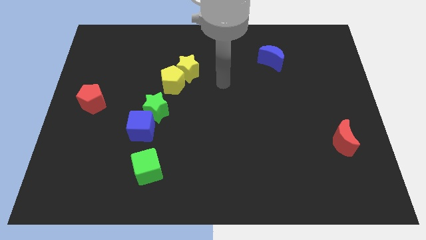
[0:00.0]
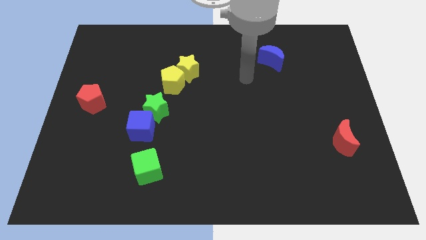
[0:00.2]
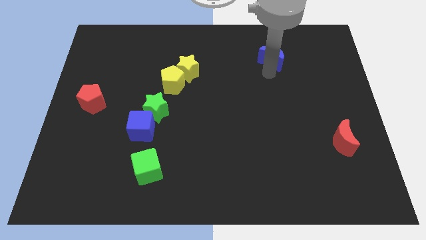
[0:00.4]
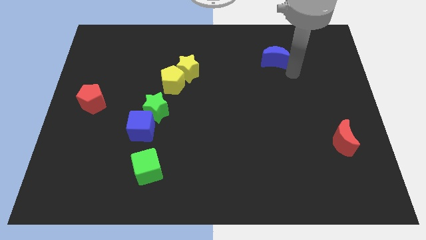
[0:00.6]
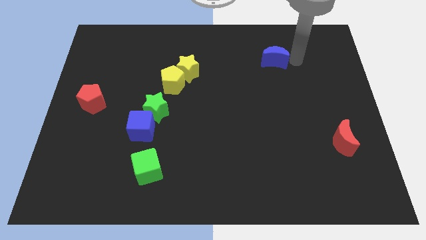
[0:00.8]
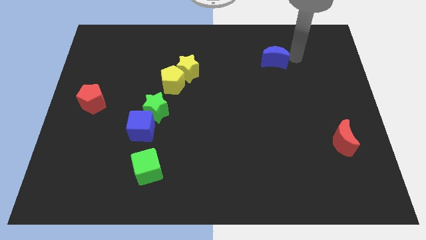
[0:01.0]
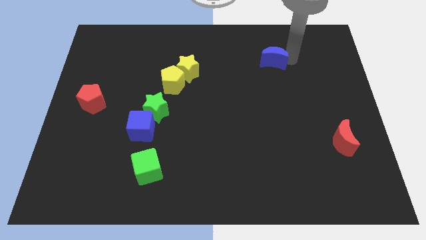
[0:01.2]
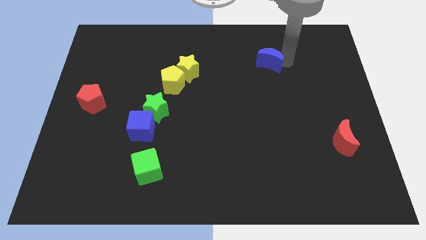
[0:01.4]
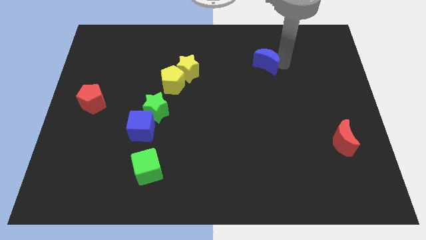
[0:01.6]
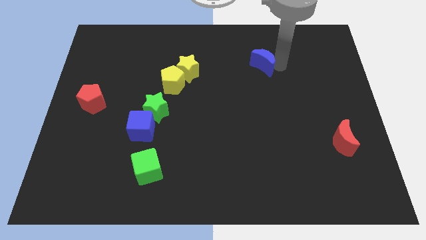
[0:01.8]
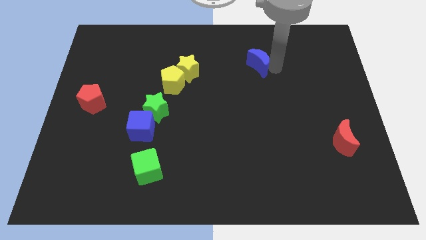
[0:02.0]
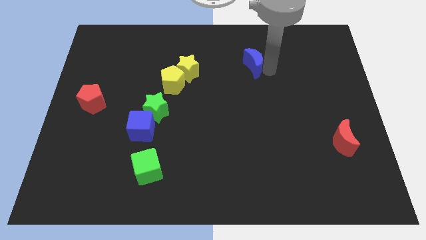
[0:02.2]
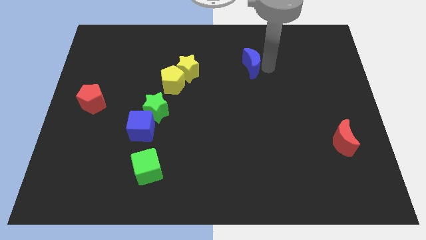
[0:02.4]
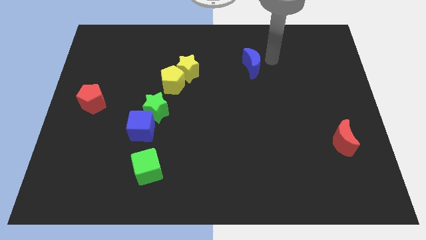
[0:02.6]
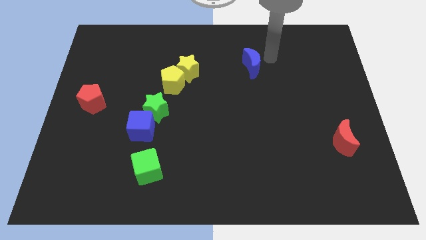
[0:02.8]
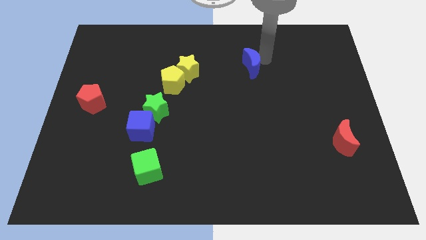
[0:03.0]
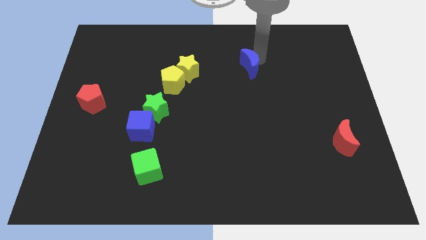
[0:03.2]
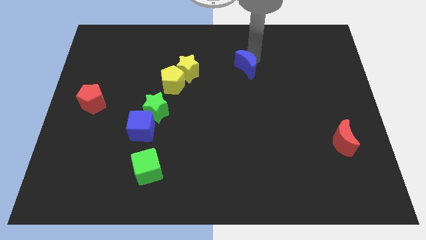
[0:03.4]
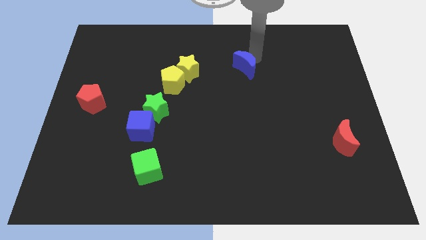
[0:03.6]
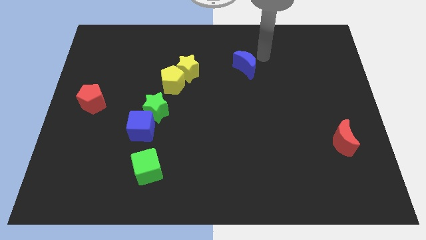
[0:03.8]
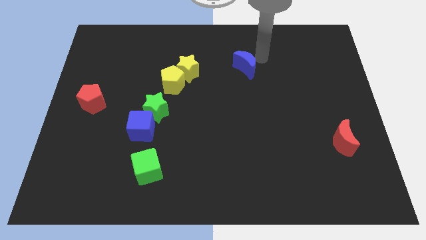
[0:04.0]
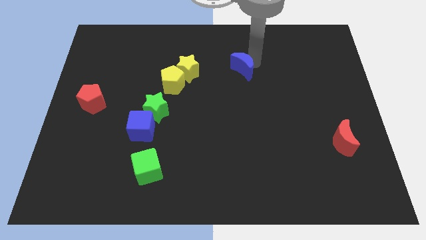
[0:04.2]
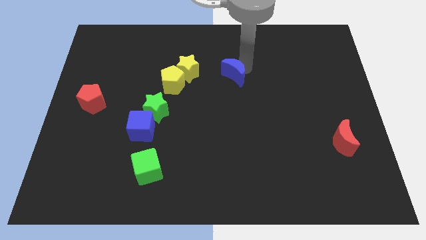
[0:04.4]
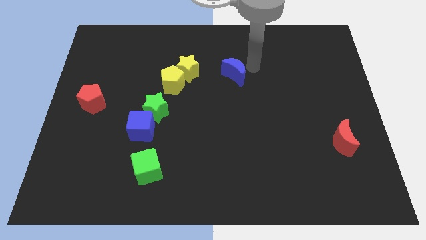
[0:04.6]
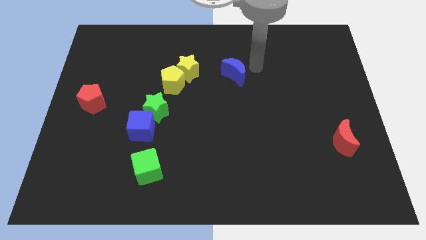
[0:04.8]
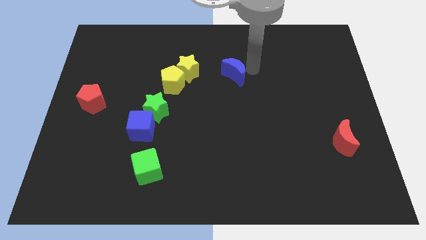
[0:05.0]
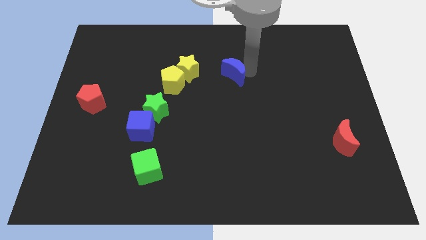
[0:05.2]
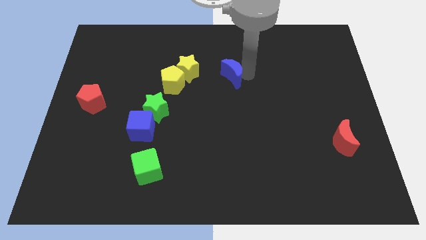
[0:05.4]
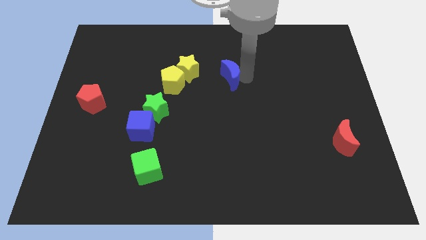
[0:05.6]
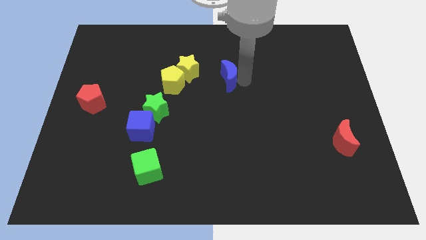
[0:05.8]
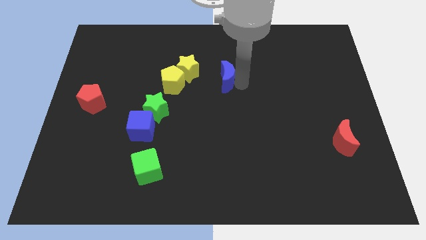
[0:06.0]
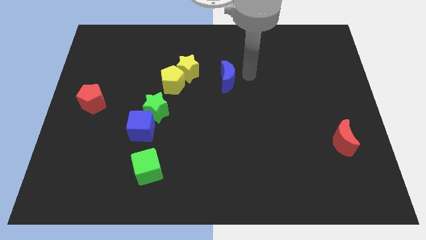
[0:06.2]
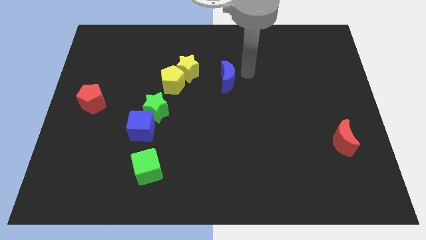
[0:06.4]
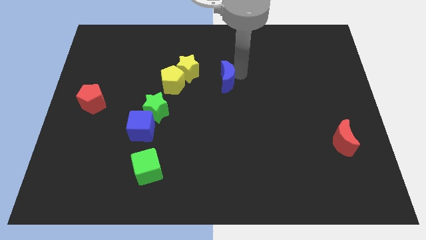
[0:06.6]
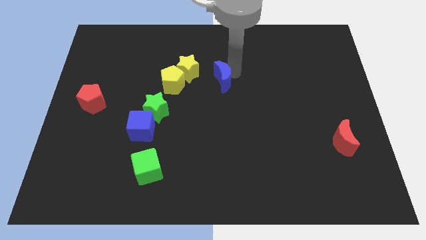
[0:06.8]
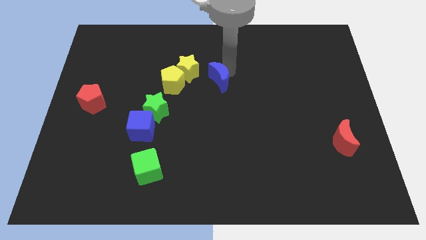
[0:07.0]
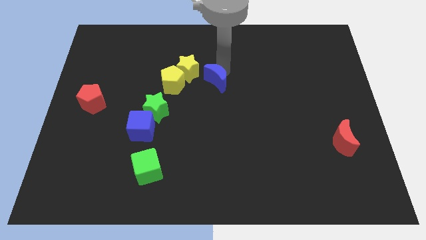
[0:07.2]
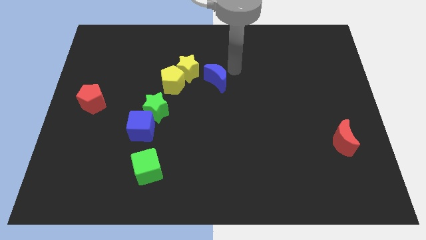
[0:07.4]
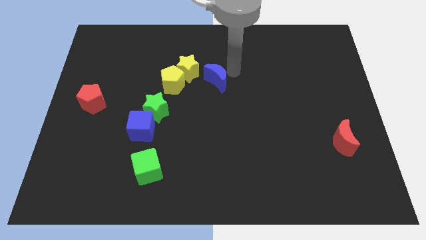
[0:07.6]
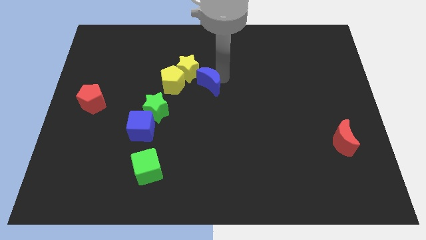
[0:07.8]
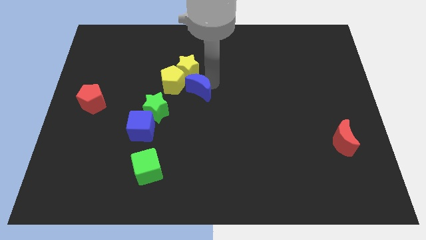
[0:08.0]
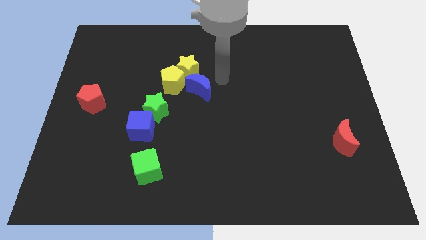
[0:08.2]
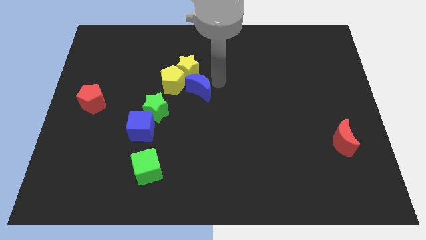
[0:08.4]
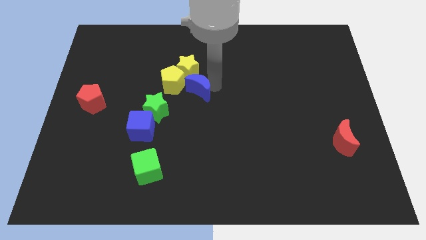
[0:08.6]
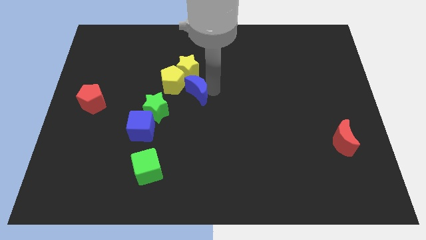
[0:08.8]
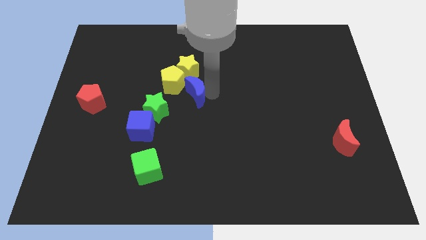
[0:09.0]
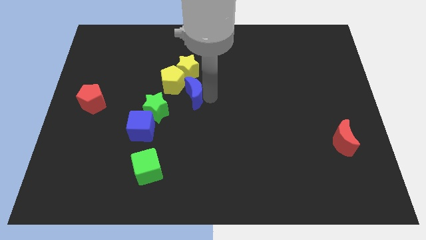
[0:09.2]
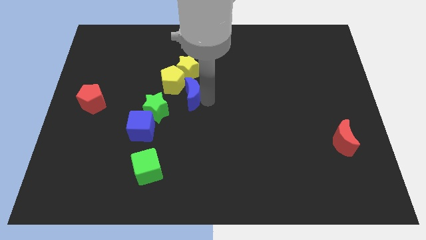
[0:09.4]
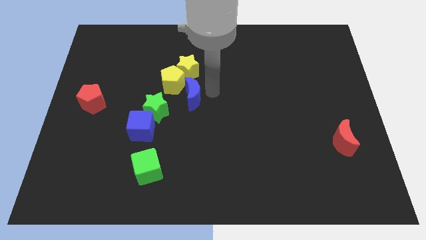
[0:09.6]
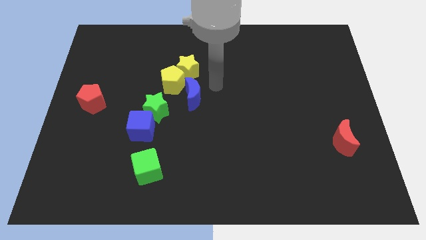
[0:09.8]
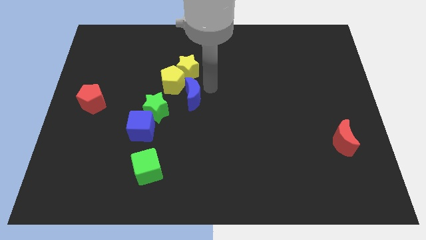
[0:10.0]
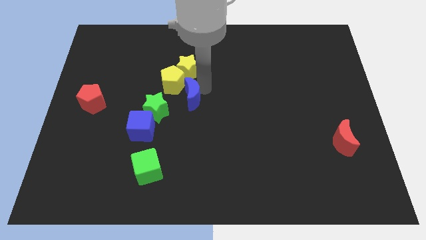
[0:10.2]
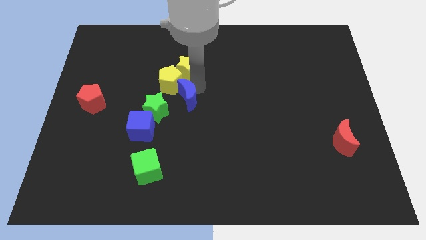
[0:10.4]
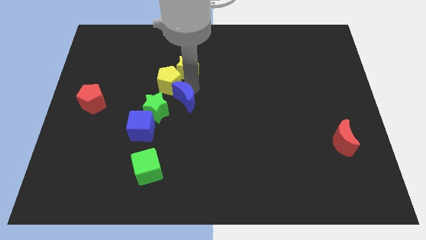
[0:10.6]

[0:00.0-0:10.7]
slide the blue moon to the top right side of the blue cube

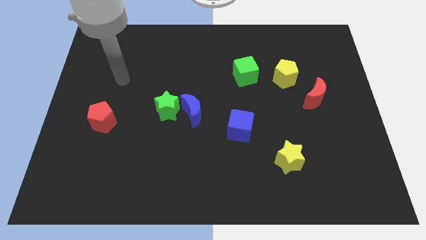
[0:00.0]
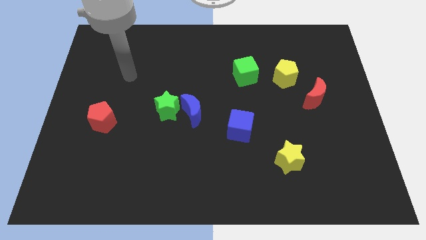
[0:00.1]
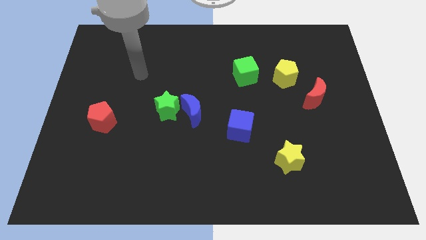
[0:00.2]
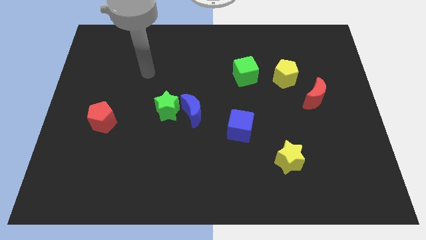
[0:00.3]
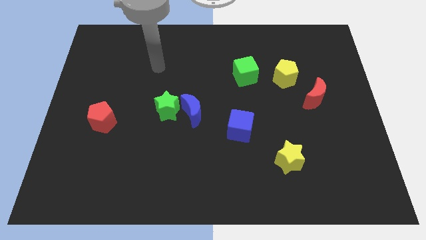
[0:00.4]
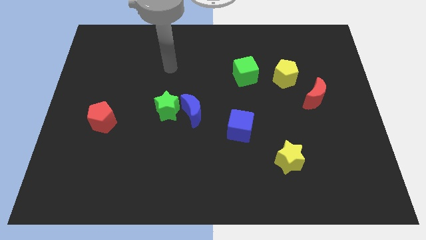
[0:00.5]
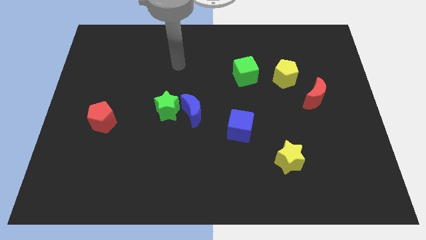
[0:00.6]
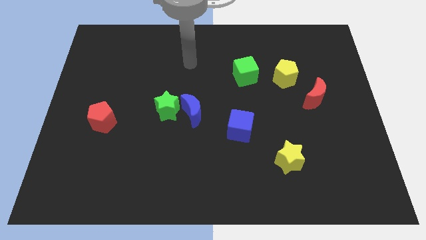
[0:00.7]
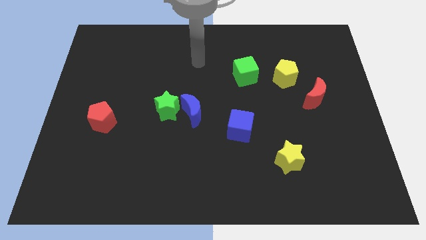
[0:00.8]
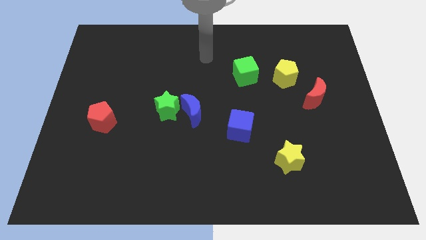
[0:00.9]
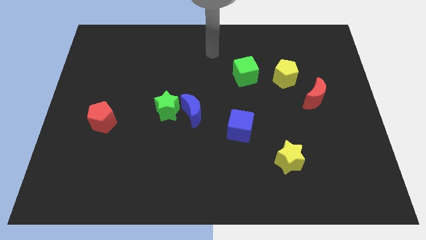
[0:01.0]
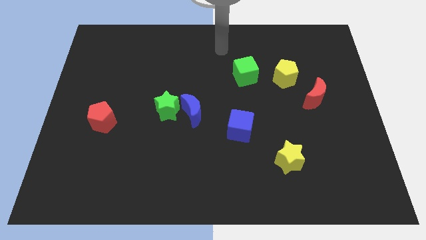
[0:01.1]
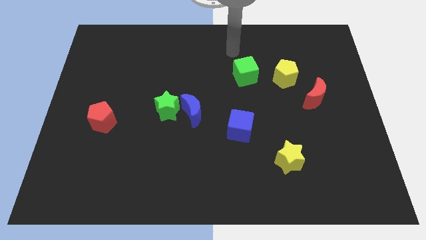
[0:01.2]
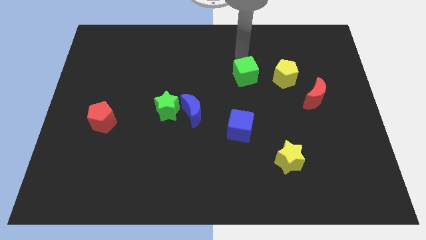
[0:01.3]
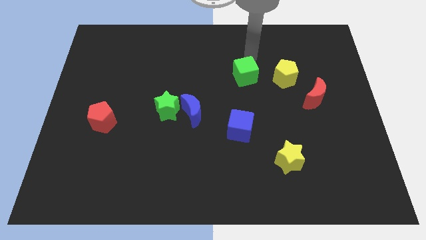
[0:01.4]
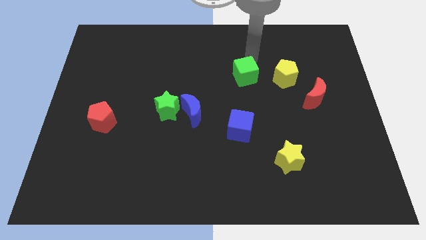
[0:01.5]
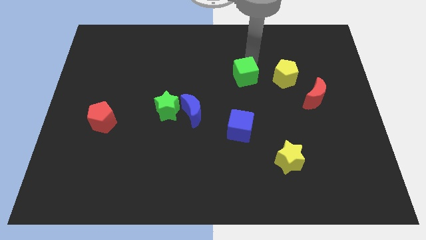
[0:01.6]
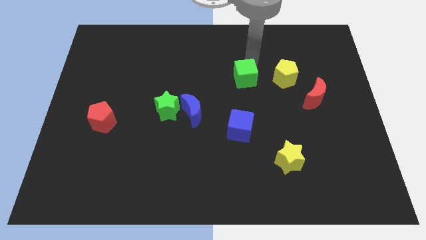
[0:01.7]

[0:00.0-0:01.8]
move the green cube above the blue cube
